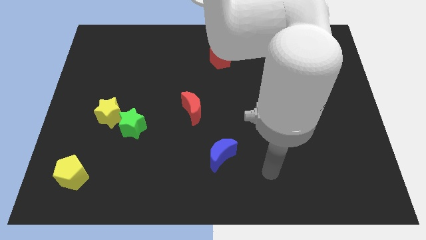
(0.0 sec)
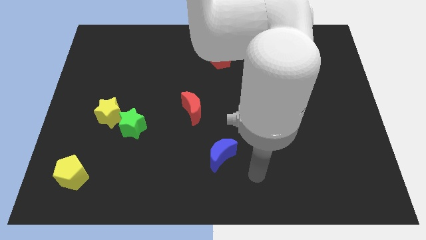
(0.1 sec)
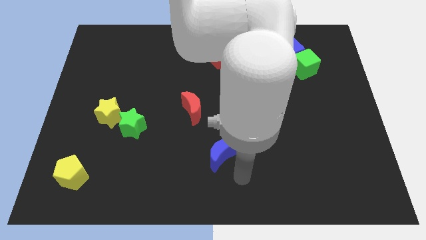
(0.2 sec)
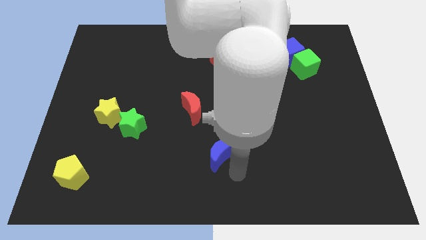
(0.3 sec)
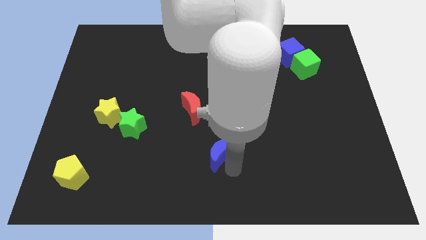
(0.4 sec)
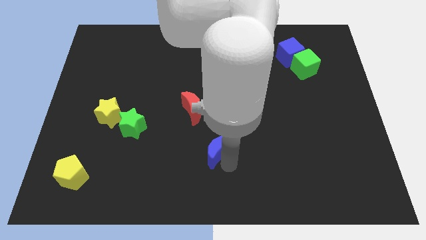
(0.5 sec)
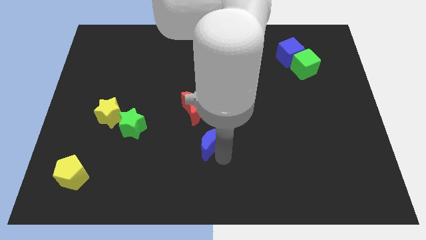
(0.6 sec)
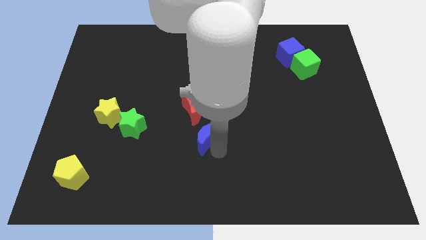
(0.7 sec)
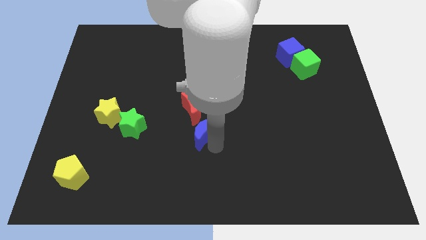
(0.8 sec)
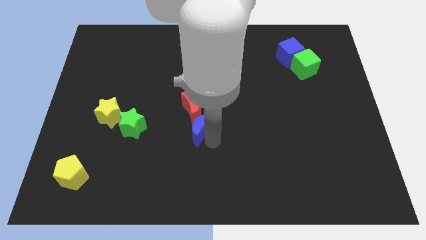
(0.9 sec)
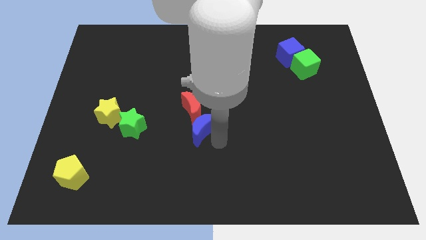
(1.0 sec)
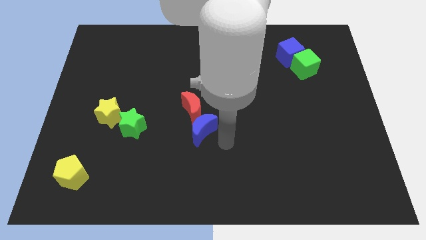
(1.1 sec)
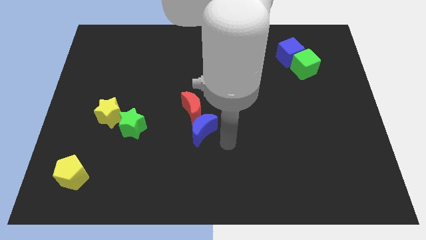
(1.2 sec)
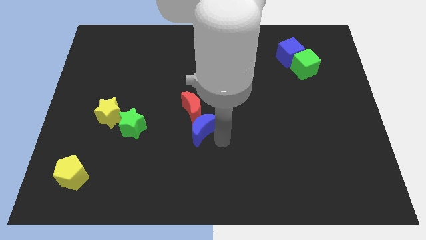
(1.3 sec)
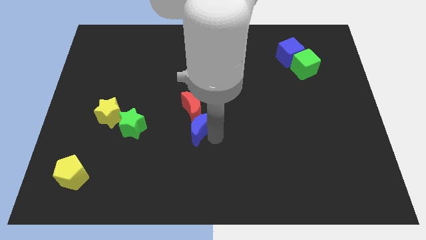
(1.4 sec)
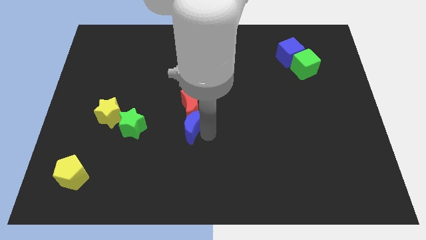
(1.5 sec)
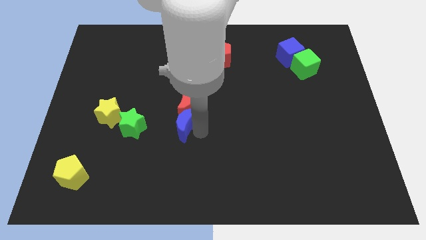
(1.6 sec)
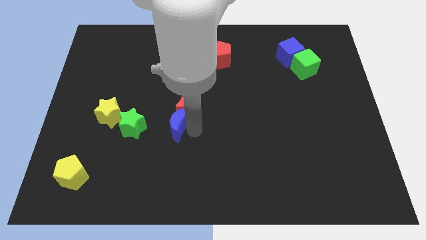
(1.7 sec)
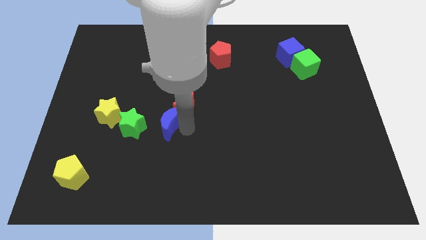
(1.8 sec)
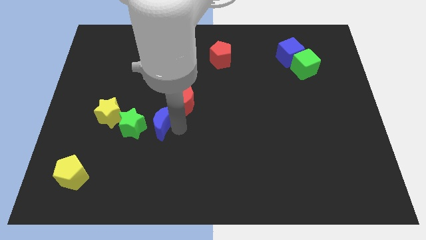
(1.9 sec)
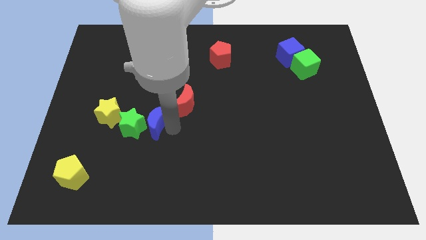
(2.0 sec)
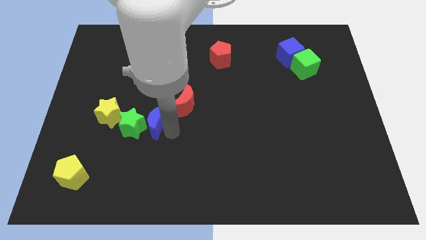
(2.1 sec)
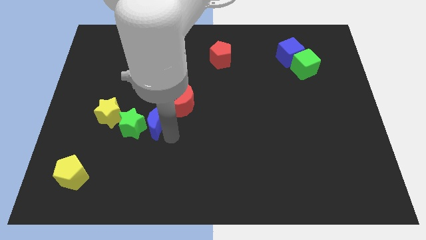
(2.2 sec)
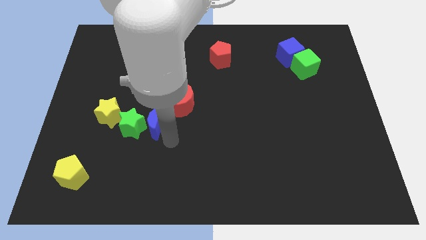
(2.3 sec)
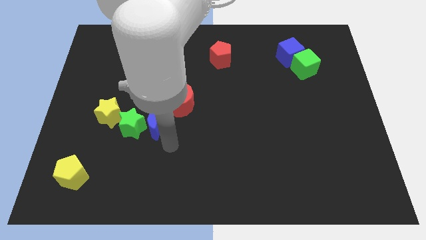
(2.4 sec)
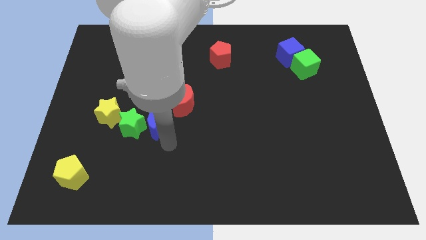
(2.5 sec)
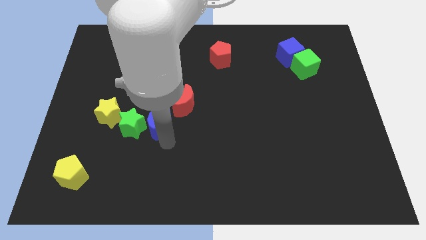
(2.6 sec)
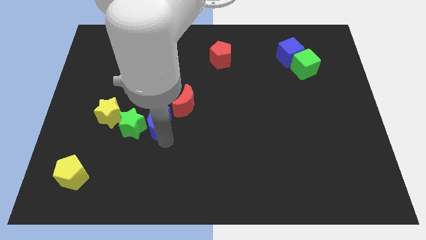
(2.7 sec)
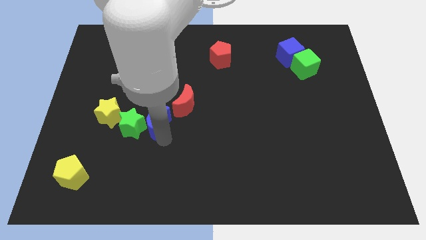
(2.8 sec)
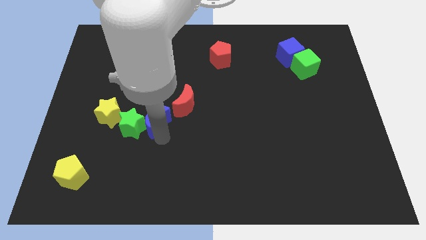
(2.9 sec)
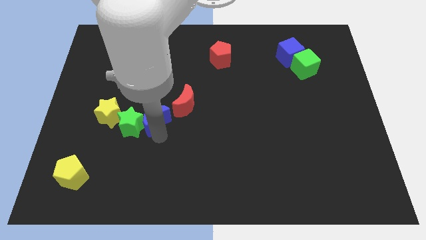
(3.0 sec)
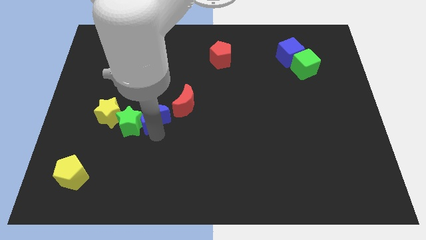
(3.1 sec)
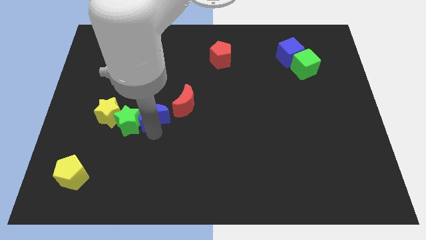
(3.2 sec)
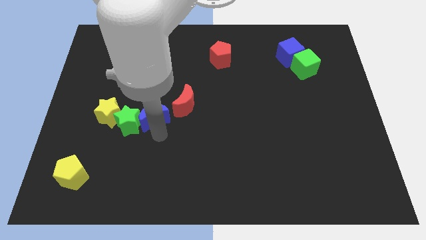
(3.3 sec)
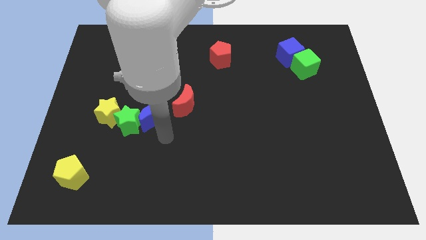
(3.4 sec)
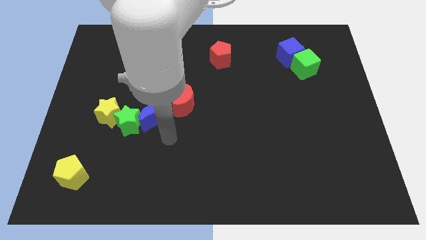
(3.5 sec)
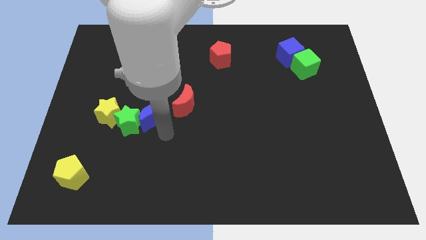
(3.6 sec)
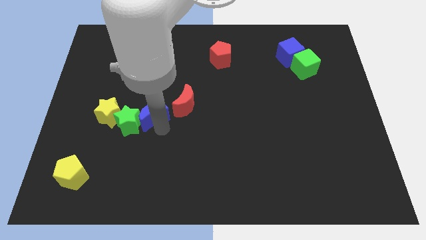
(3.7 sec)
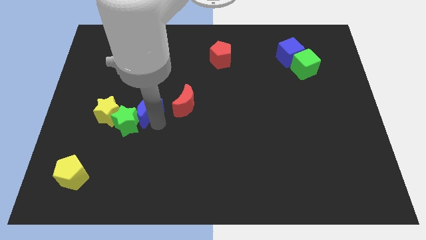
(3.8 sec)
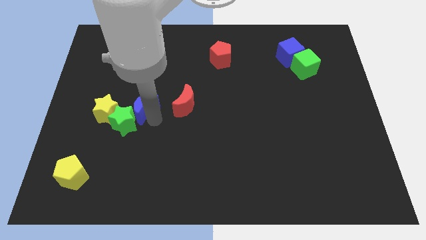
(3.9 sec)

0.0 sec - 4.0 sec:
push the blue moon up and then to the left

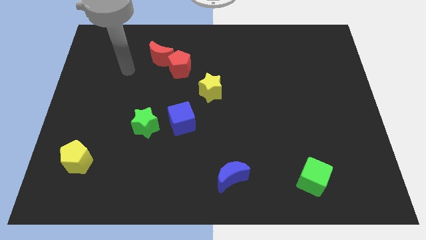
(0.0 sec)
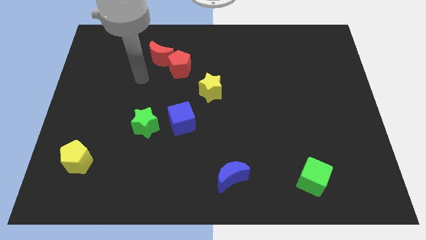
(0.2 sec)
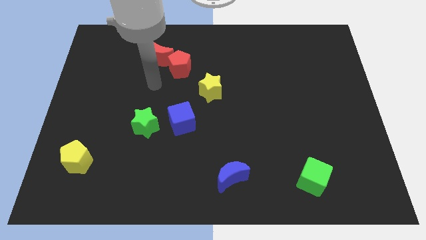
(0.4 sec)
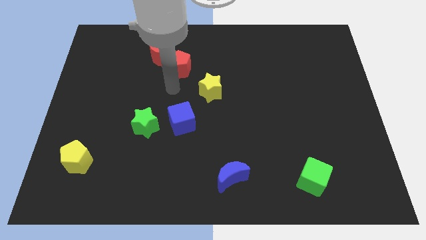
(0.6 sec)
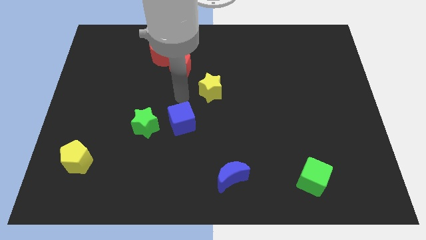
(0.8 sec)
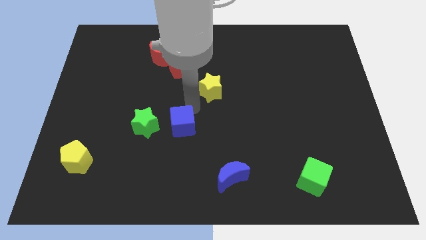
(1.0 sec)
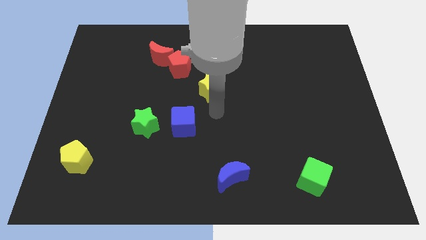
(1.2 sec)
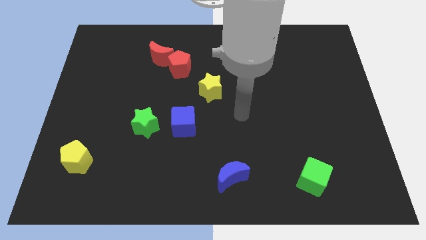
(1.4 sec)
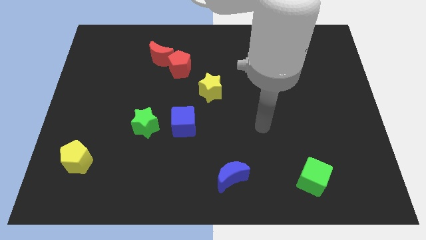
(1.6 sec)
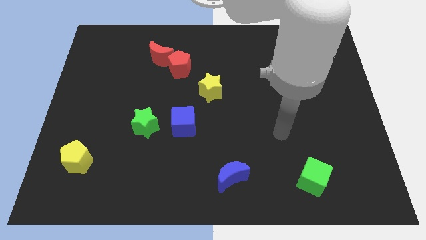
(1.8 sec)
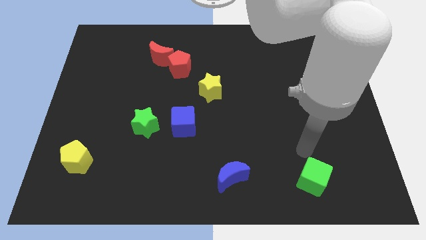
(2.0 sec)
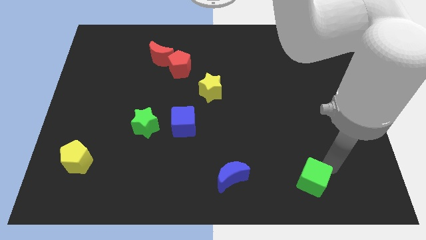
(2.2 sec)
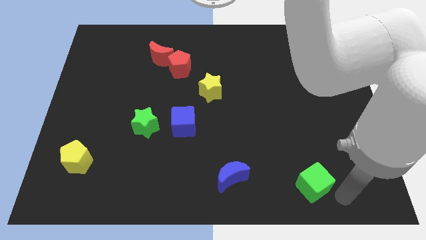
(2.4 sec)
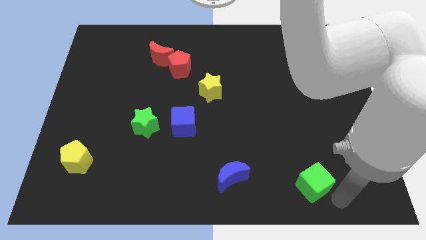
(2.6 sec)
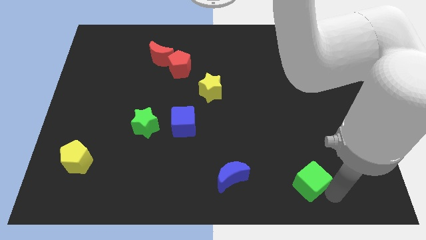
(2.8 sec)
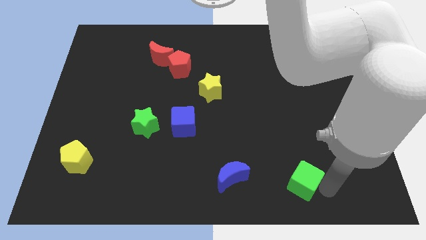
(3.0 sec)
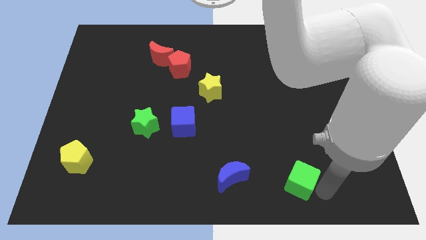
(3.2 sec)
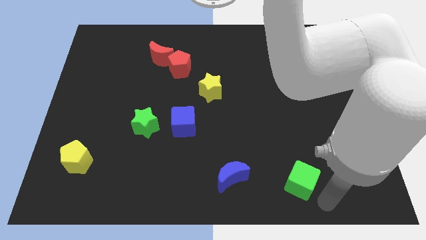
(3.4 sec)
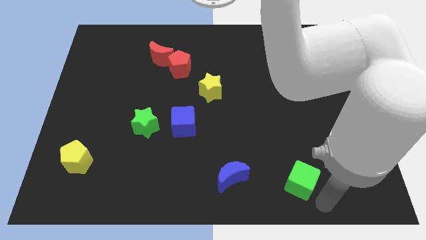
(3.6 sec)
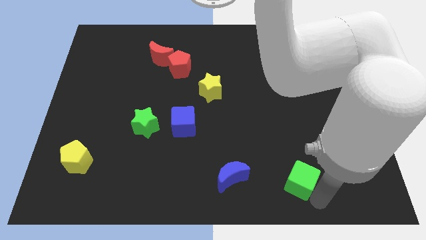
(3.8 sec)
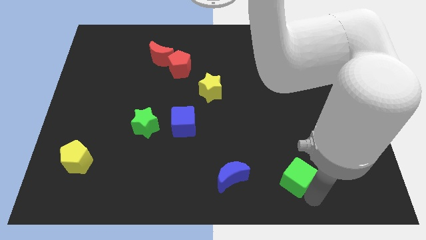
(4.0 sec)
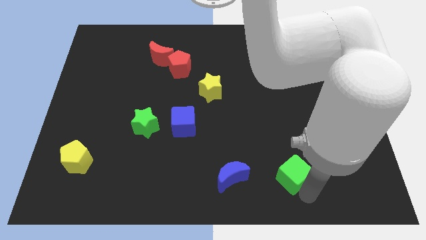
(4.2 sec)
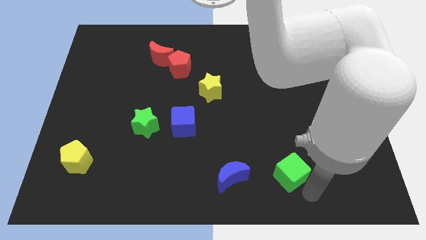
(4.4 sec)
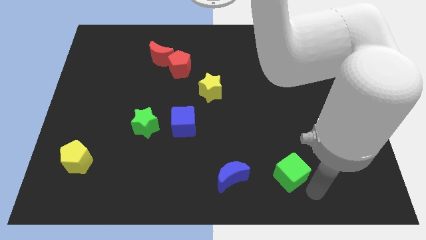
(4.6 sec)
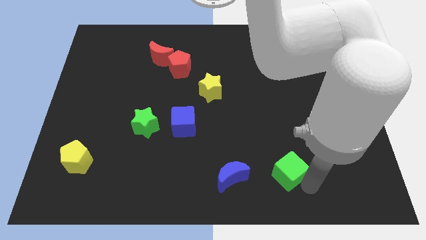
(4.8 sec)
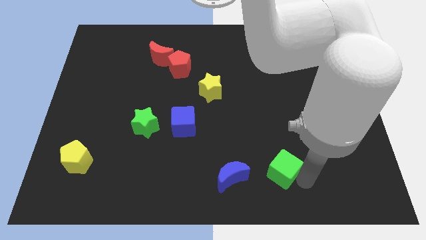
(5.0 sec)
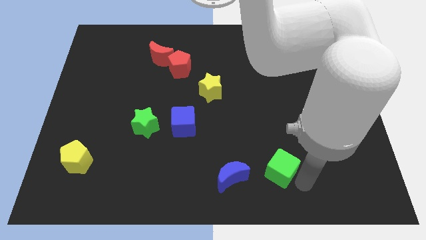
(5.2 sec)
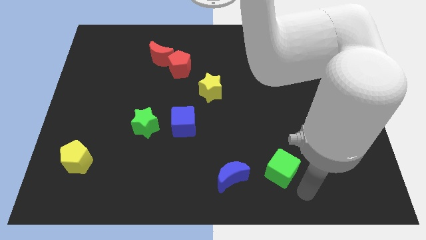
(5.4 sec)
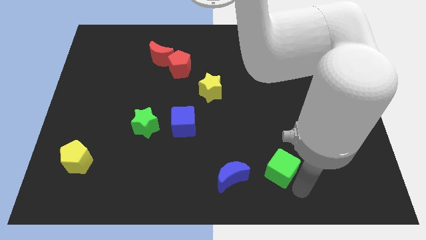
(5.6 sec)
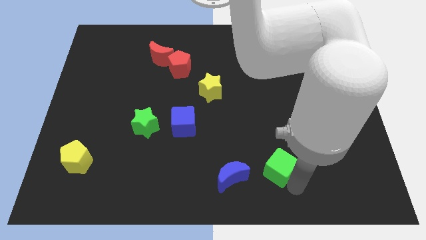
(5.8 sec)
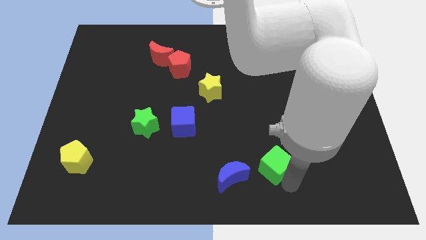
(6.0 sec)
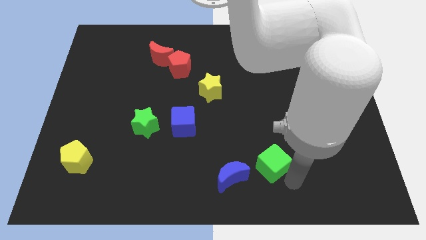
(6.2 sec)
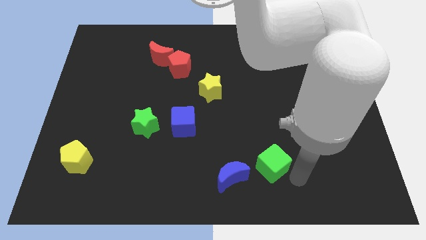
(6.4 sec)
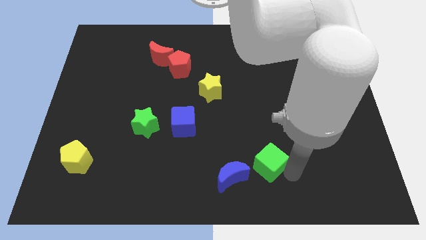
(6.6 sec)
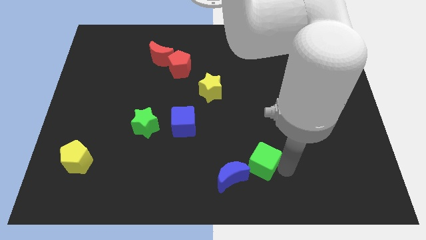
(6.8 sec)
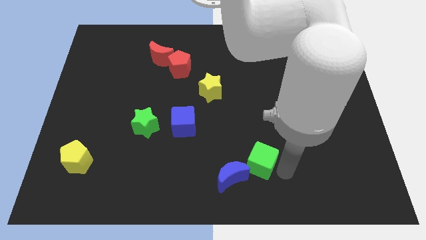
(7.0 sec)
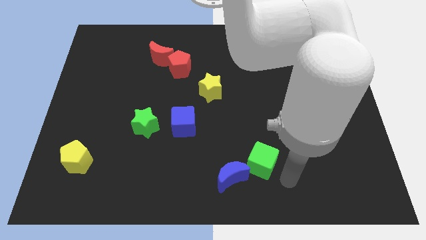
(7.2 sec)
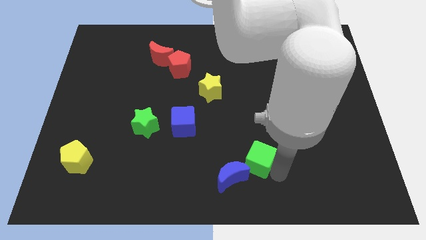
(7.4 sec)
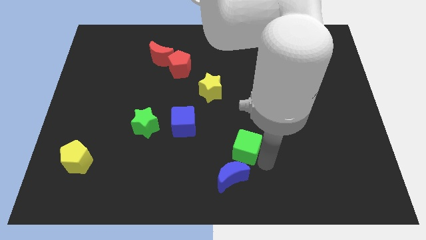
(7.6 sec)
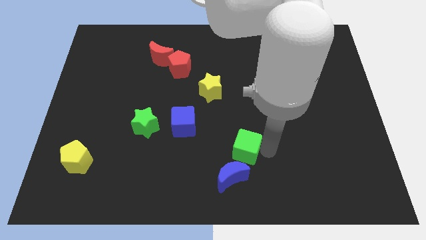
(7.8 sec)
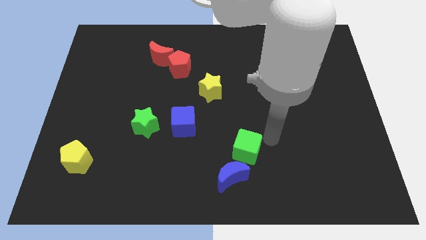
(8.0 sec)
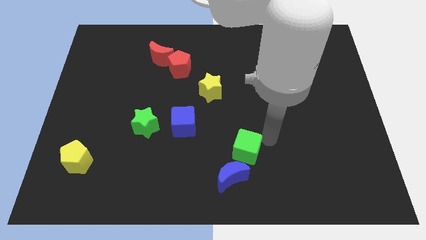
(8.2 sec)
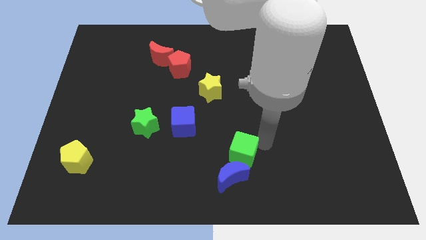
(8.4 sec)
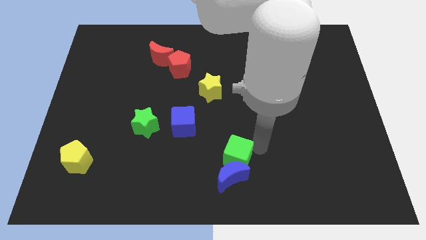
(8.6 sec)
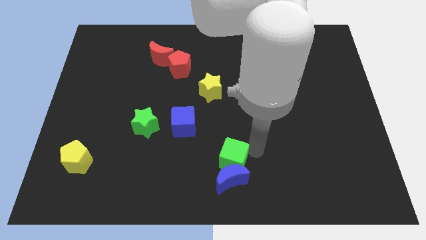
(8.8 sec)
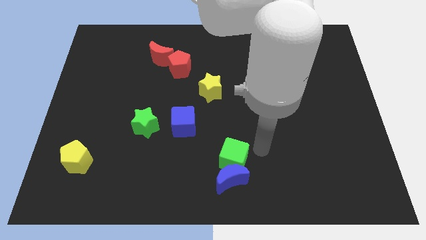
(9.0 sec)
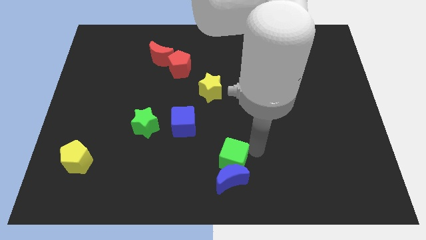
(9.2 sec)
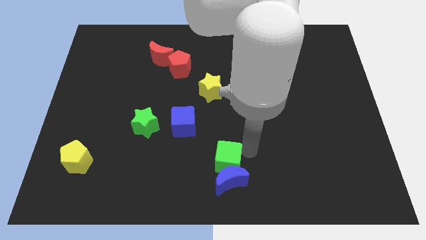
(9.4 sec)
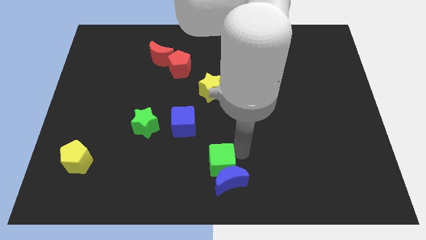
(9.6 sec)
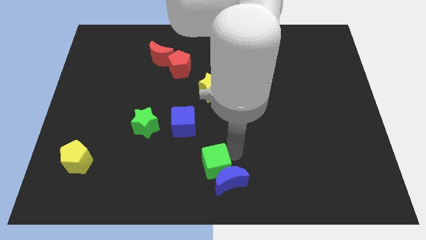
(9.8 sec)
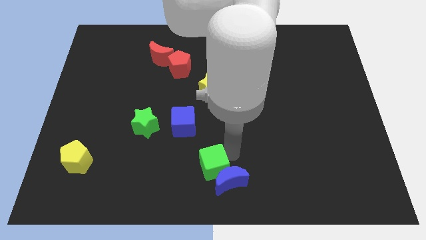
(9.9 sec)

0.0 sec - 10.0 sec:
push the green cube to the left
